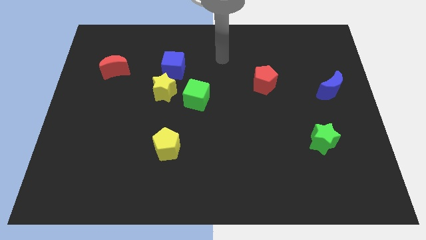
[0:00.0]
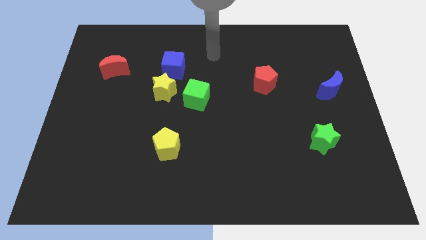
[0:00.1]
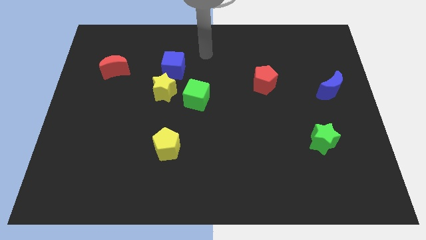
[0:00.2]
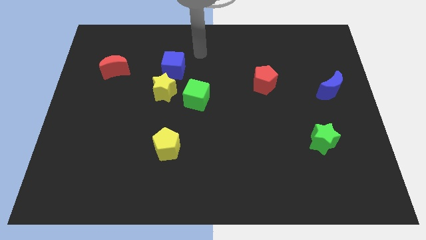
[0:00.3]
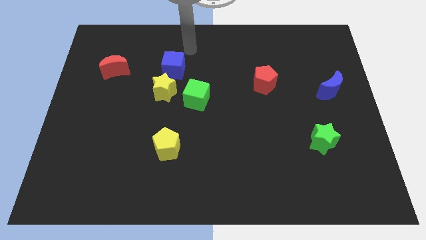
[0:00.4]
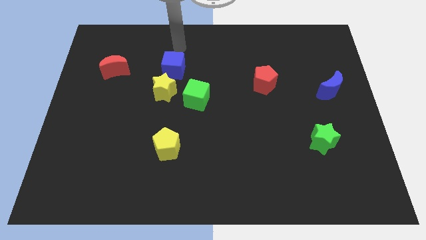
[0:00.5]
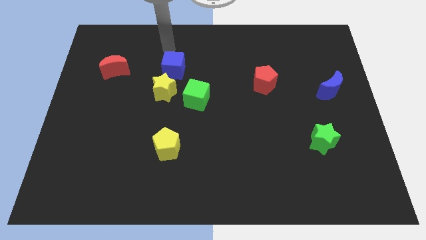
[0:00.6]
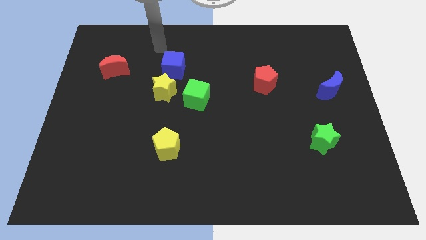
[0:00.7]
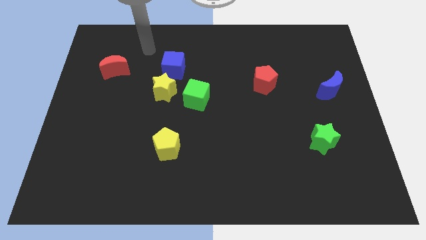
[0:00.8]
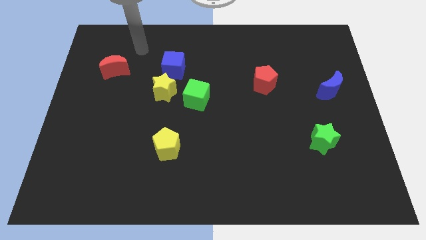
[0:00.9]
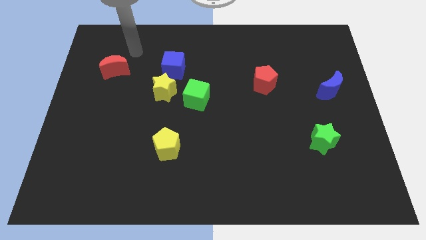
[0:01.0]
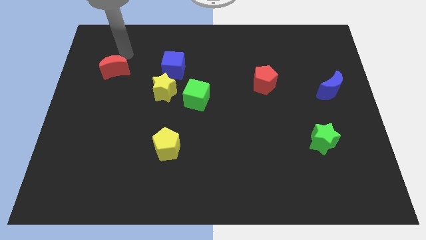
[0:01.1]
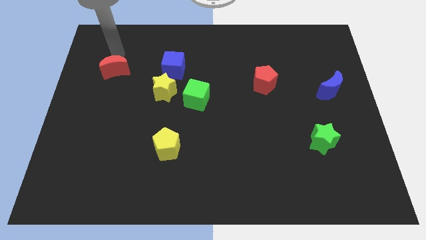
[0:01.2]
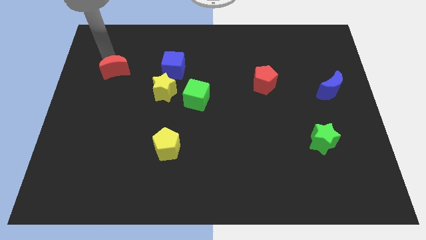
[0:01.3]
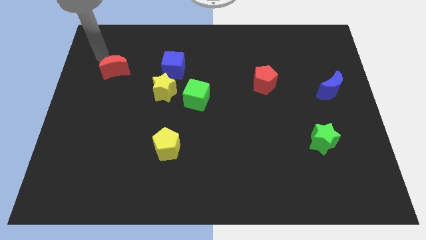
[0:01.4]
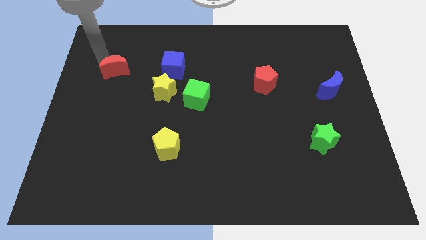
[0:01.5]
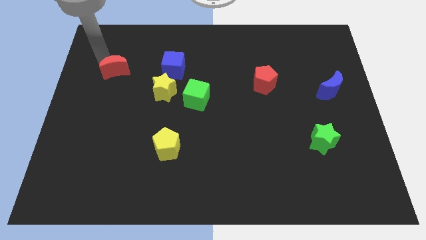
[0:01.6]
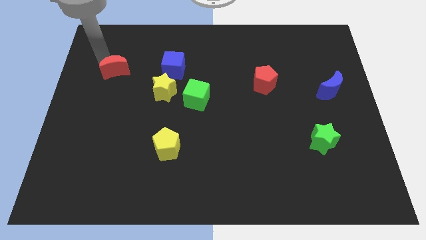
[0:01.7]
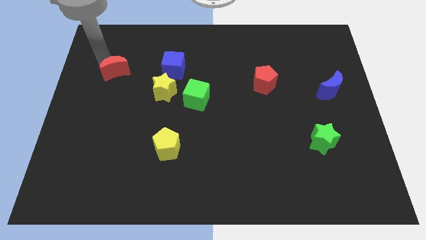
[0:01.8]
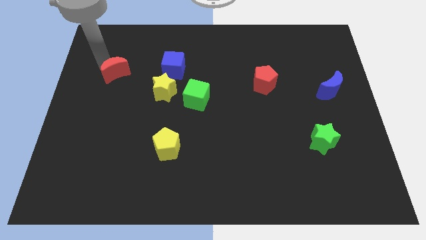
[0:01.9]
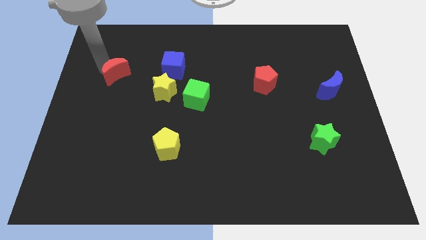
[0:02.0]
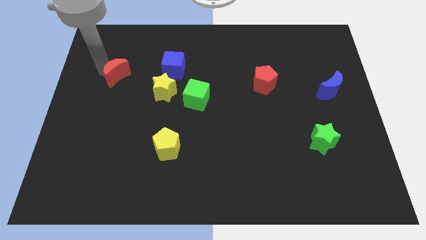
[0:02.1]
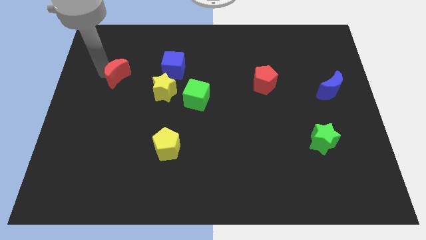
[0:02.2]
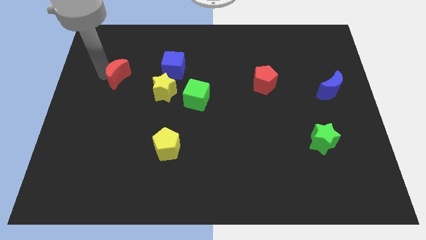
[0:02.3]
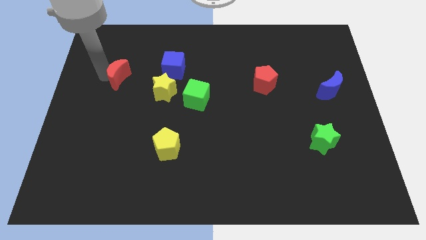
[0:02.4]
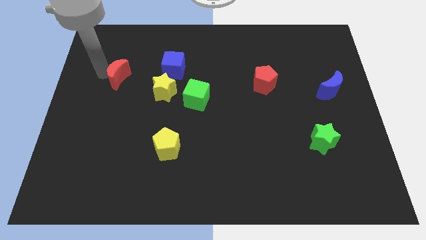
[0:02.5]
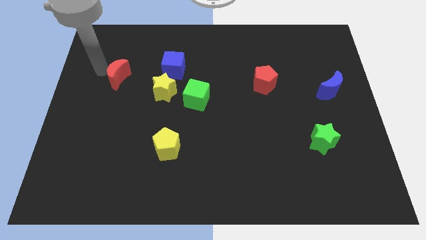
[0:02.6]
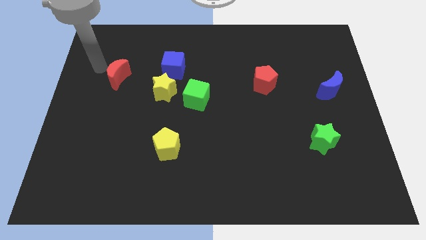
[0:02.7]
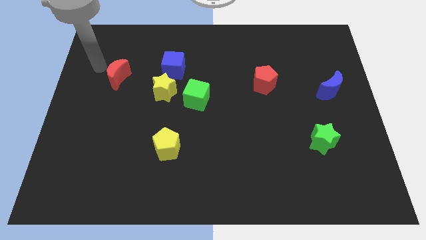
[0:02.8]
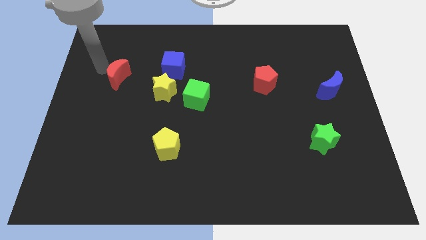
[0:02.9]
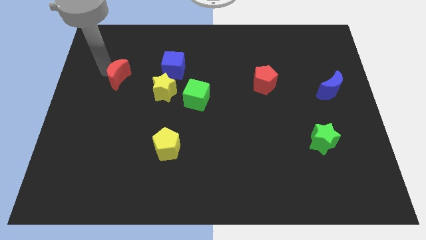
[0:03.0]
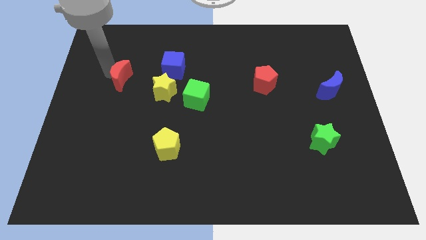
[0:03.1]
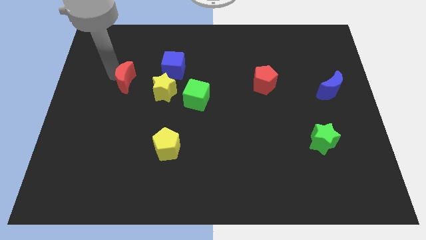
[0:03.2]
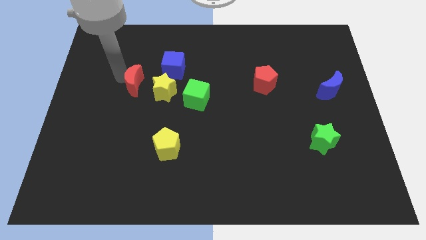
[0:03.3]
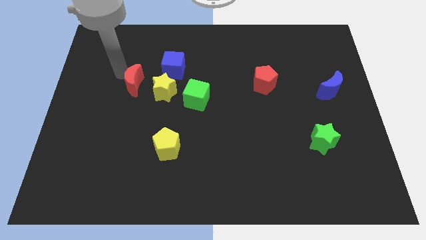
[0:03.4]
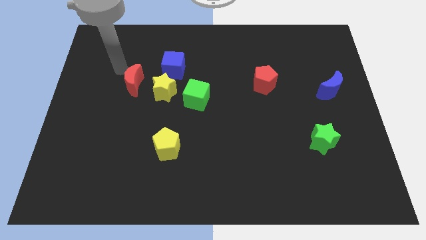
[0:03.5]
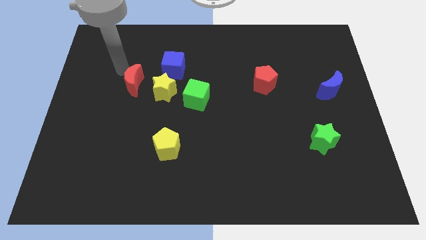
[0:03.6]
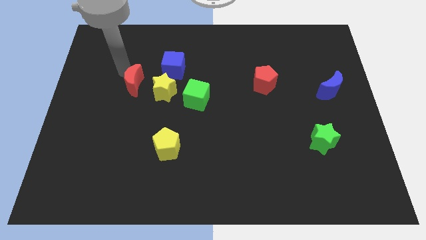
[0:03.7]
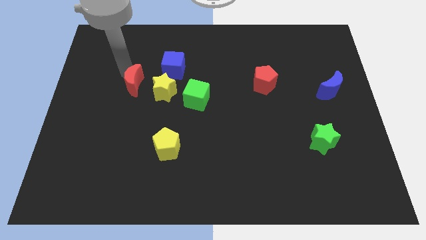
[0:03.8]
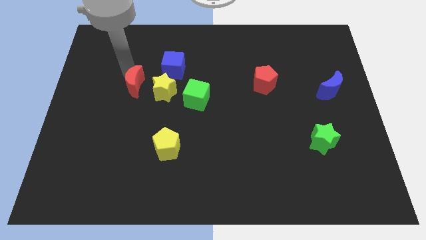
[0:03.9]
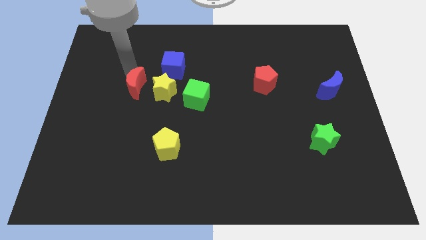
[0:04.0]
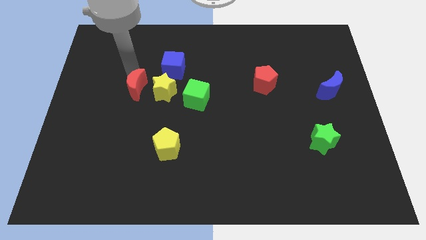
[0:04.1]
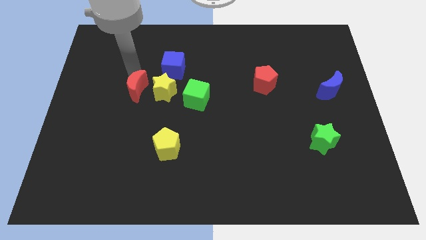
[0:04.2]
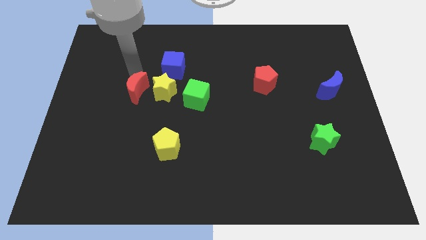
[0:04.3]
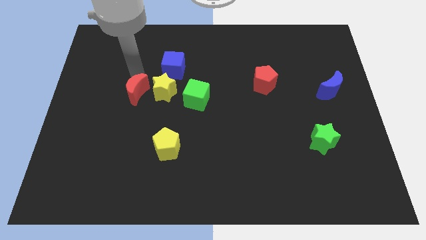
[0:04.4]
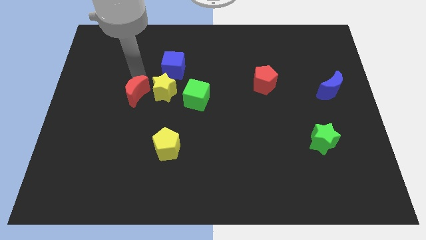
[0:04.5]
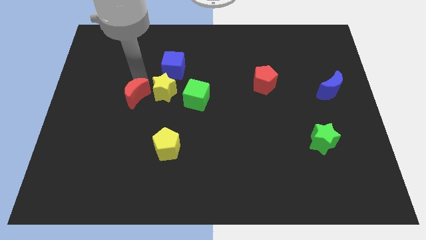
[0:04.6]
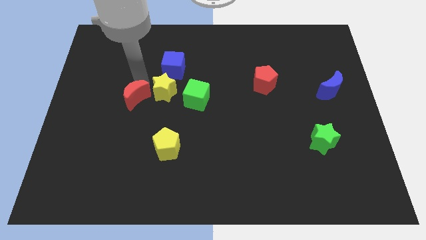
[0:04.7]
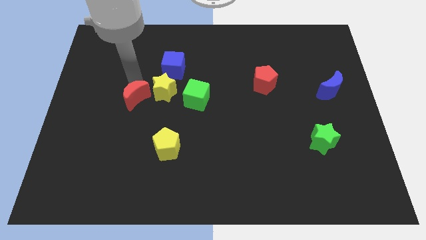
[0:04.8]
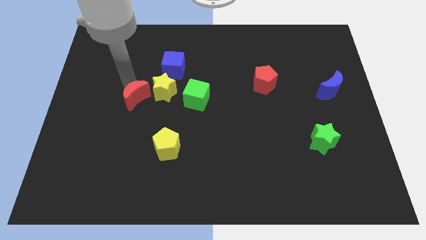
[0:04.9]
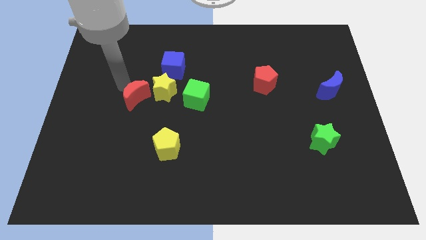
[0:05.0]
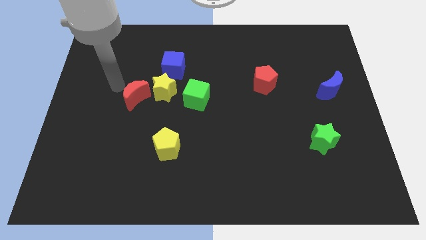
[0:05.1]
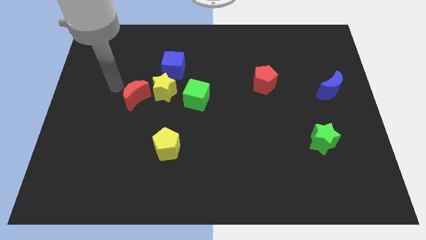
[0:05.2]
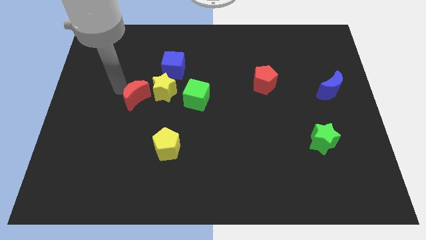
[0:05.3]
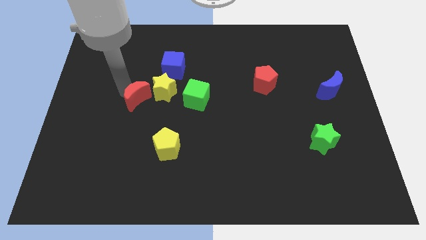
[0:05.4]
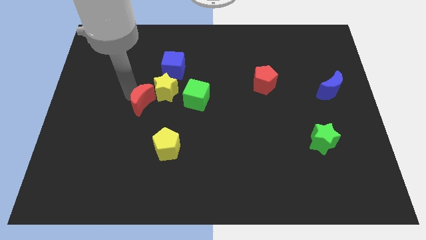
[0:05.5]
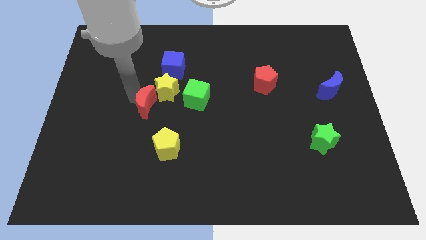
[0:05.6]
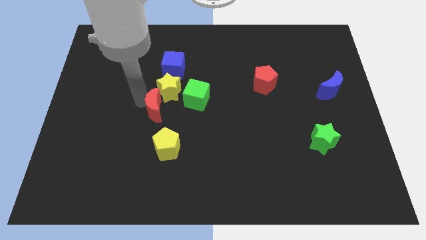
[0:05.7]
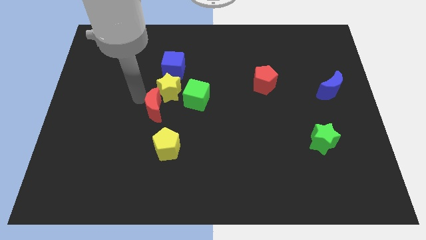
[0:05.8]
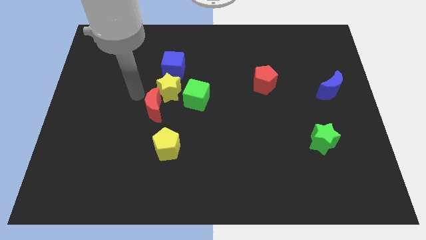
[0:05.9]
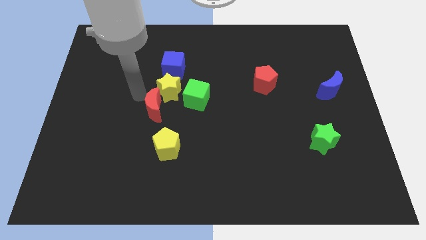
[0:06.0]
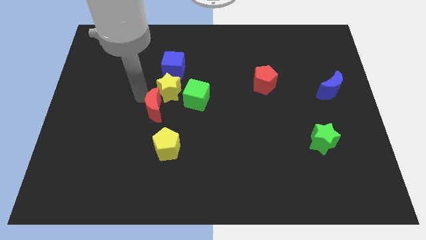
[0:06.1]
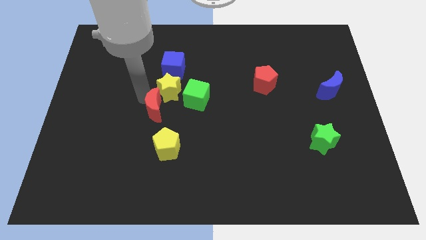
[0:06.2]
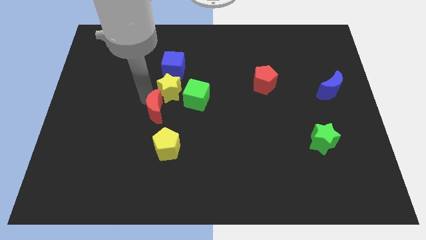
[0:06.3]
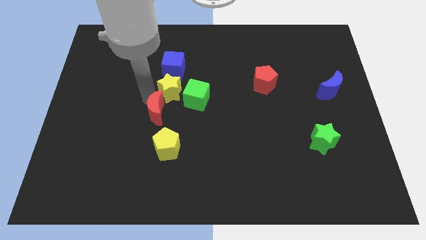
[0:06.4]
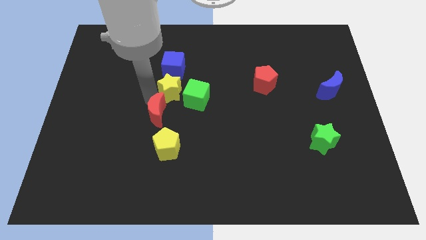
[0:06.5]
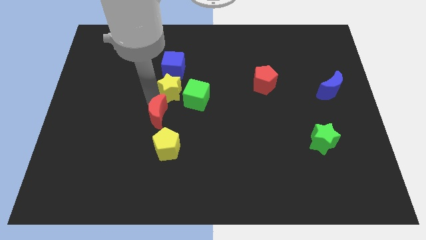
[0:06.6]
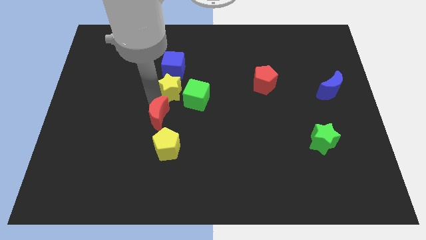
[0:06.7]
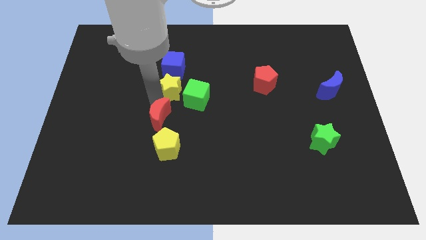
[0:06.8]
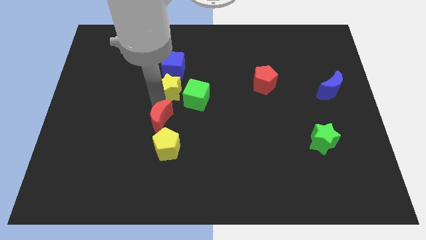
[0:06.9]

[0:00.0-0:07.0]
push the red moon downwards and then to the right

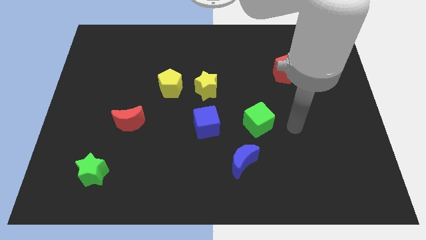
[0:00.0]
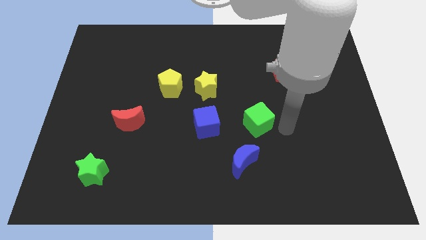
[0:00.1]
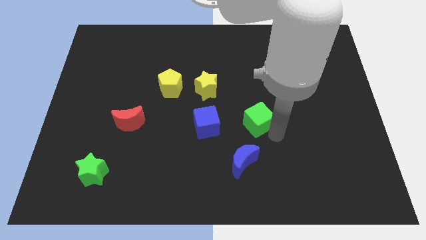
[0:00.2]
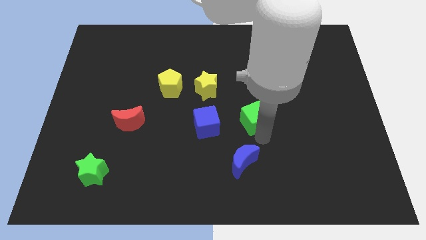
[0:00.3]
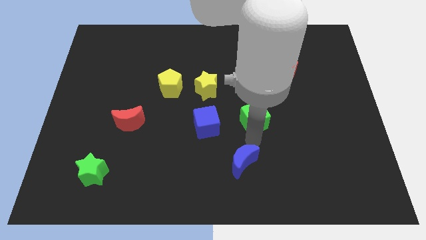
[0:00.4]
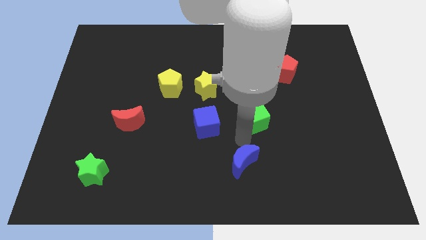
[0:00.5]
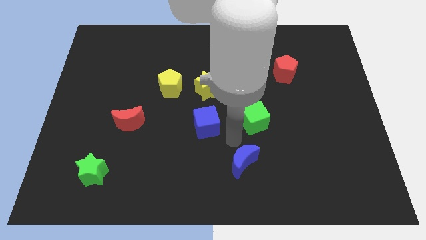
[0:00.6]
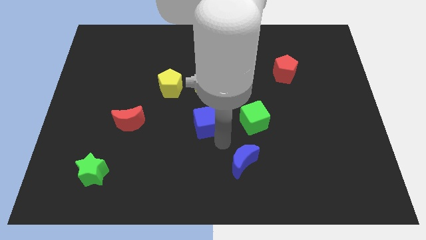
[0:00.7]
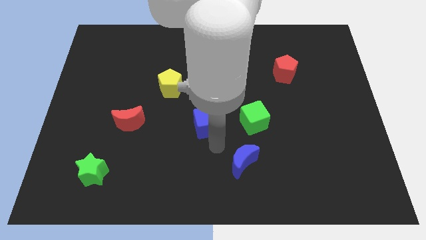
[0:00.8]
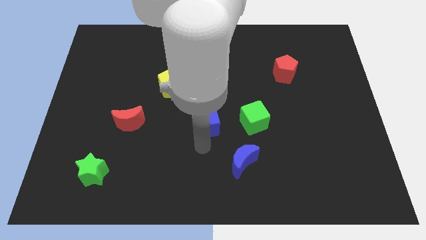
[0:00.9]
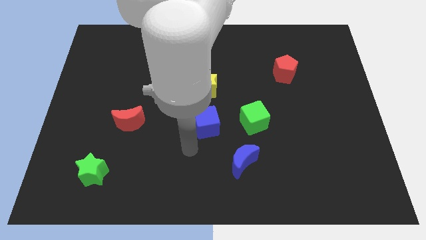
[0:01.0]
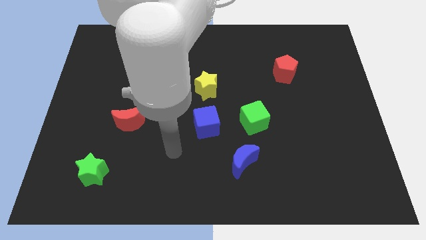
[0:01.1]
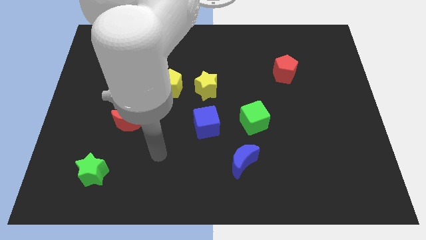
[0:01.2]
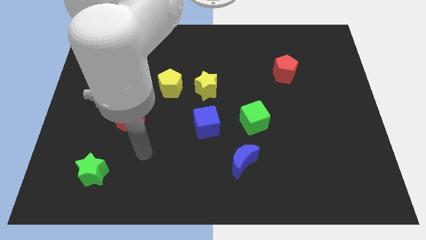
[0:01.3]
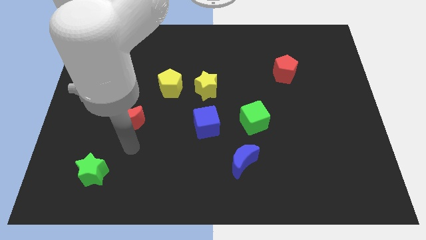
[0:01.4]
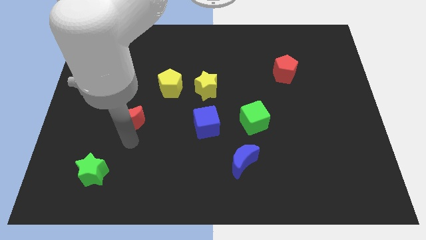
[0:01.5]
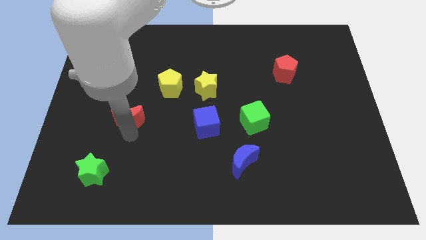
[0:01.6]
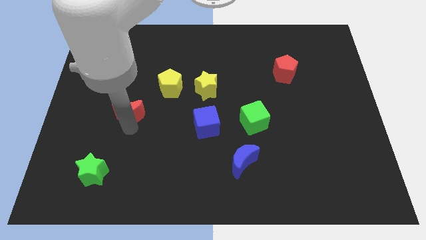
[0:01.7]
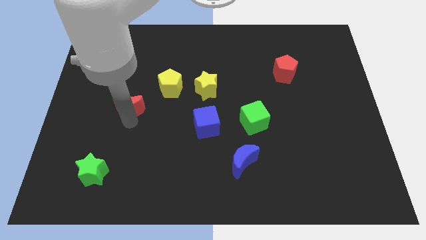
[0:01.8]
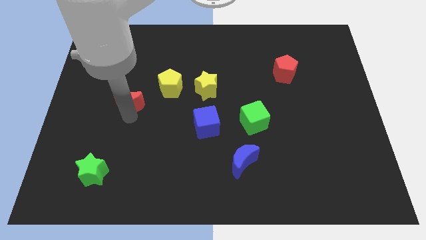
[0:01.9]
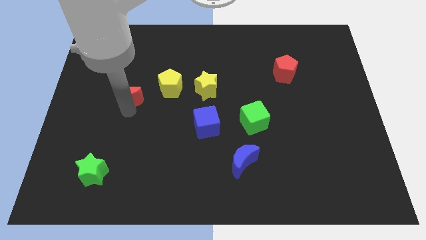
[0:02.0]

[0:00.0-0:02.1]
move the red moon upwards somewhat
